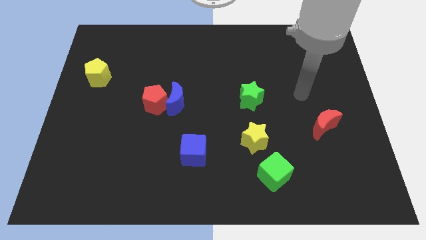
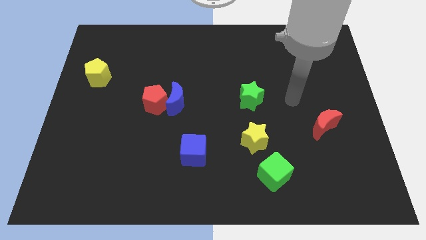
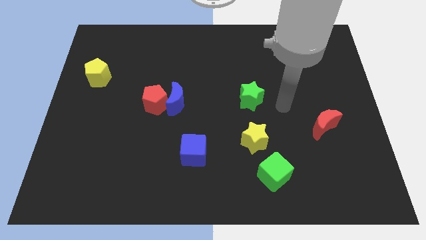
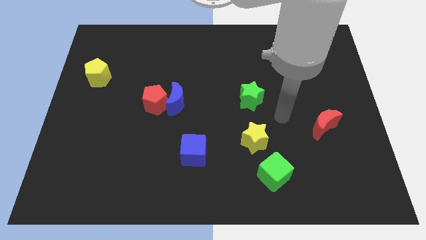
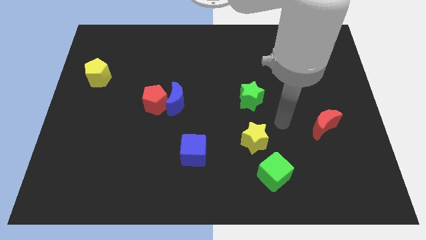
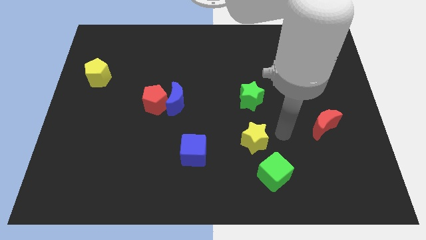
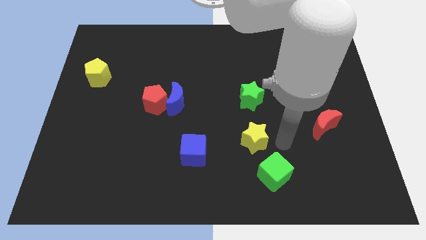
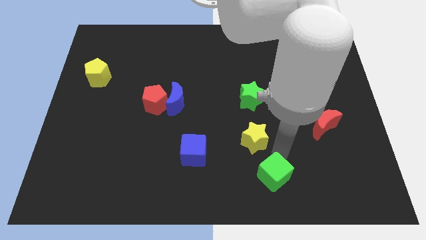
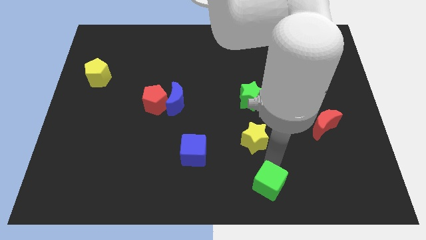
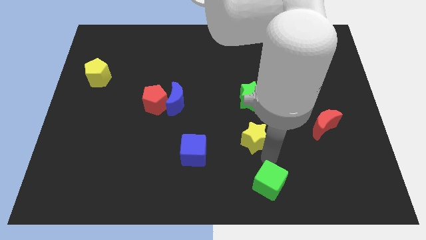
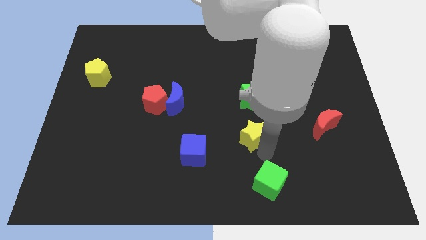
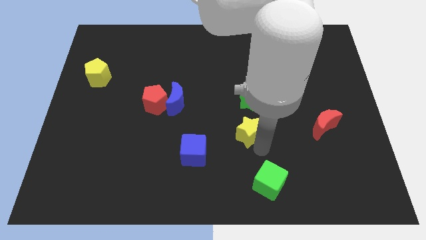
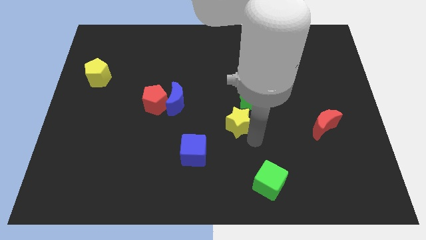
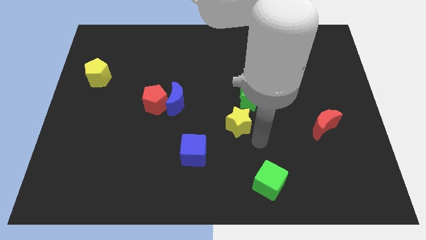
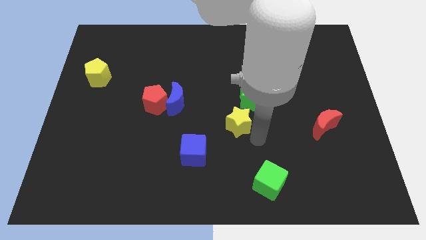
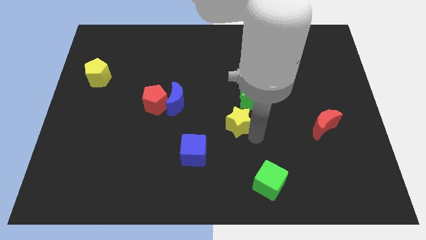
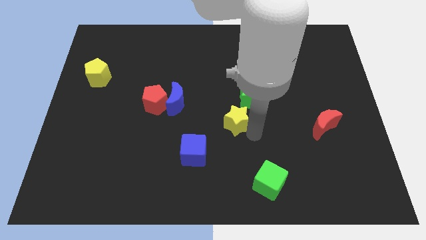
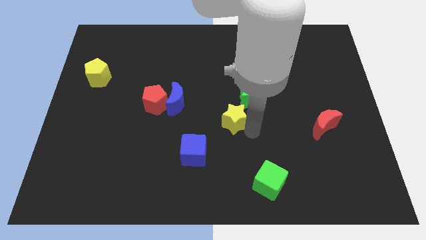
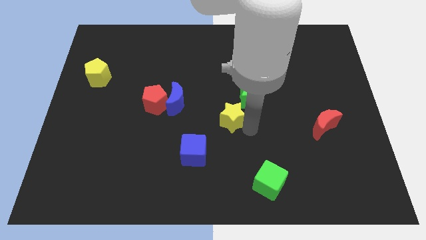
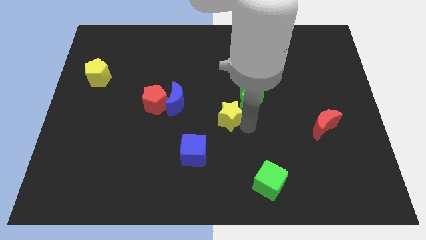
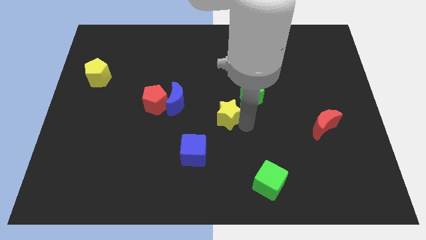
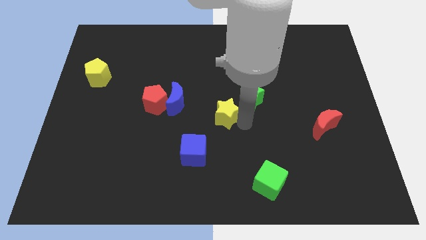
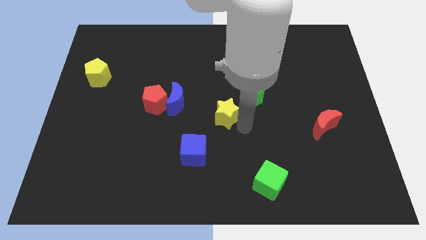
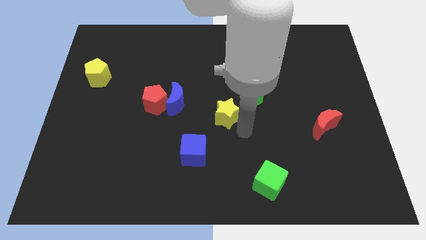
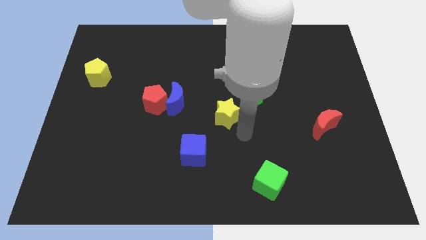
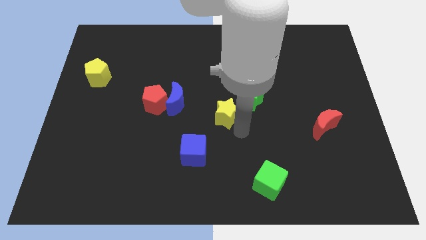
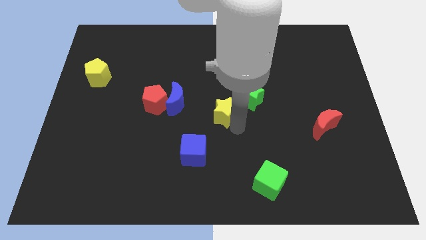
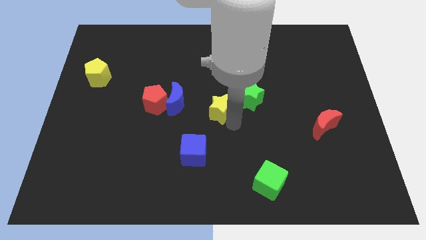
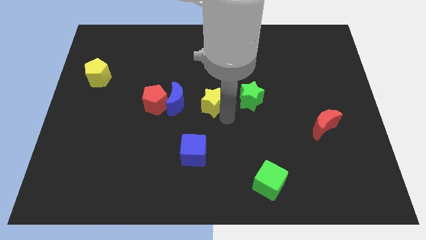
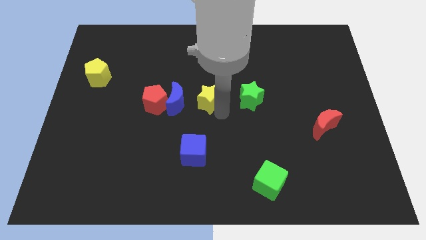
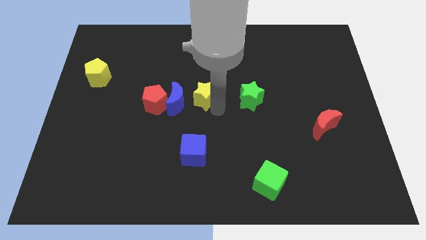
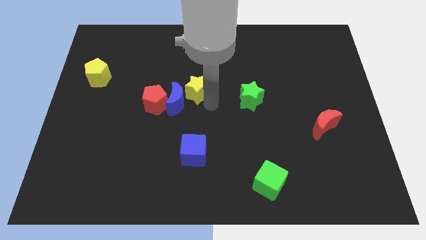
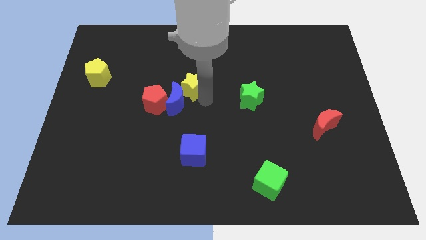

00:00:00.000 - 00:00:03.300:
move the yellow star upwards and then left

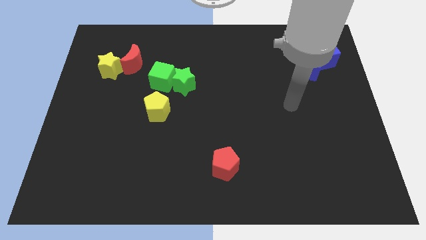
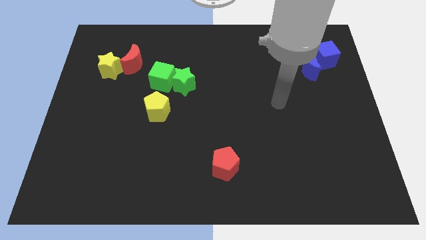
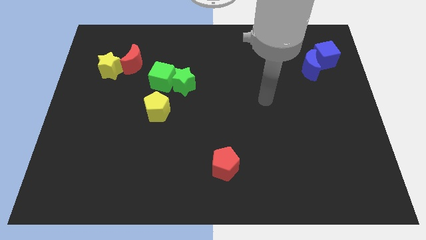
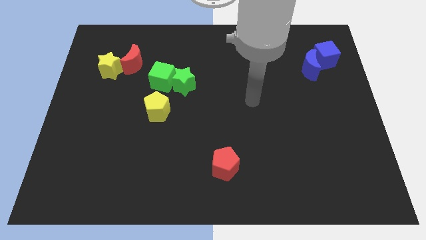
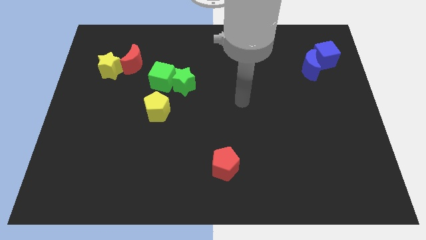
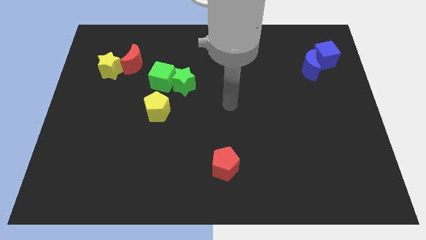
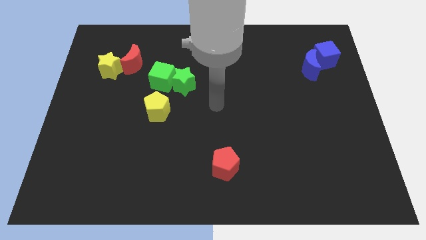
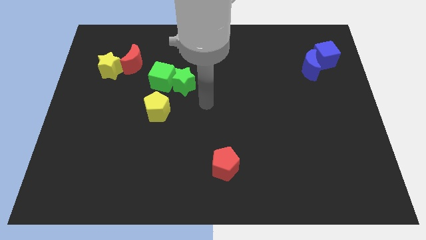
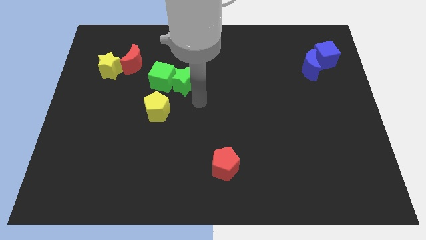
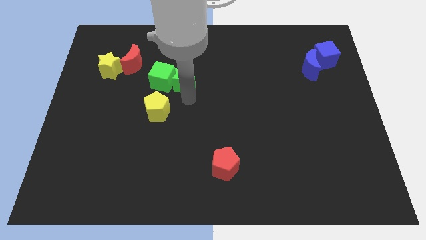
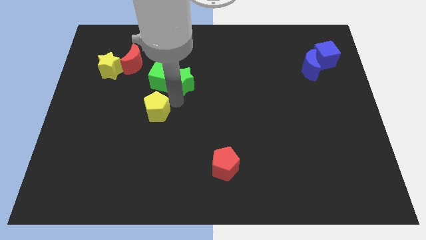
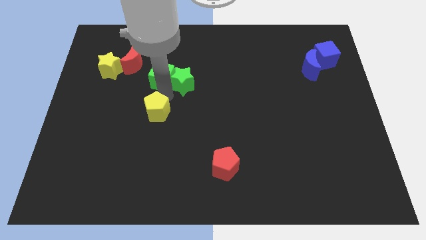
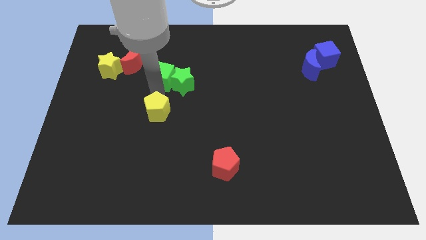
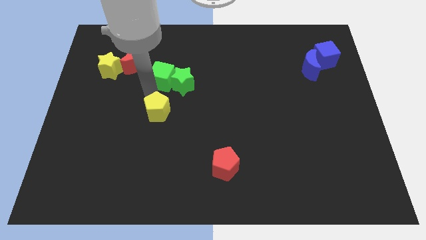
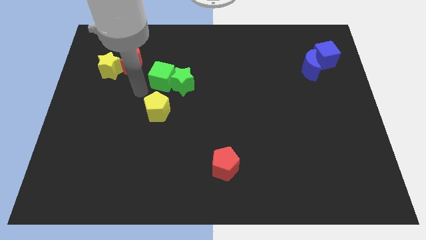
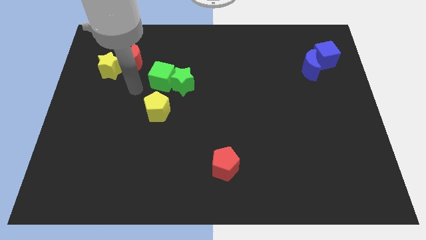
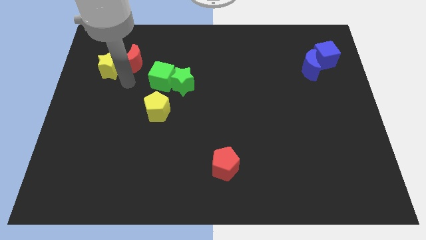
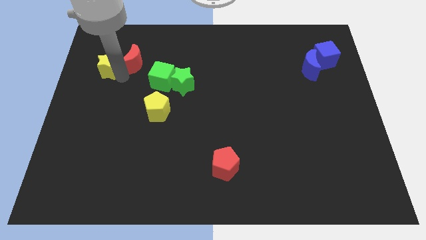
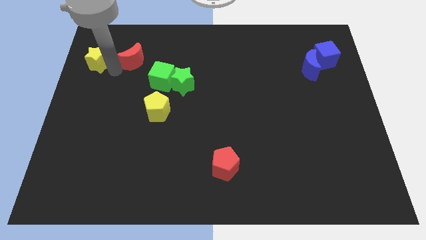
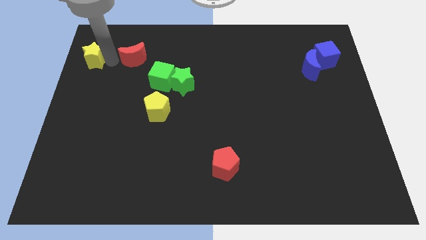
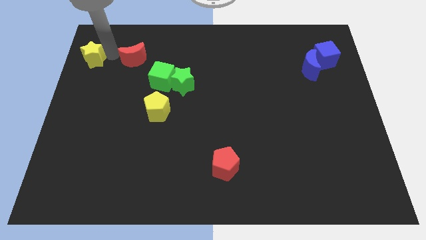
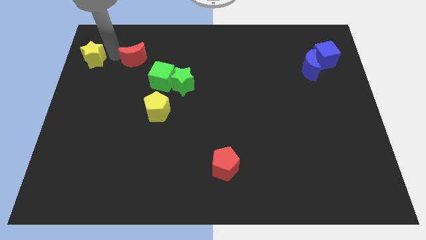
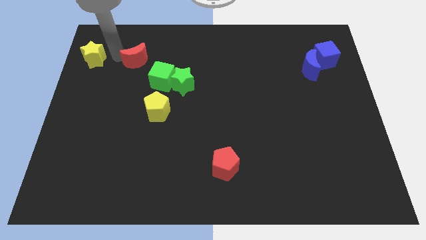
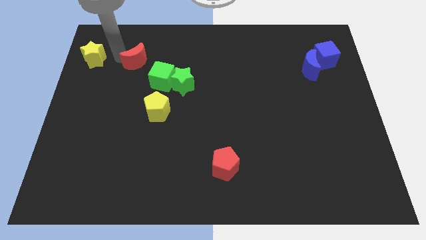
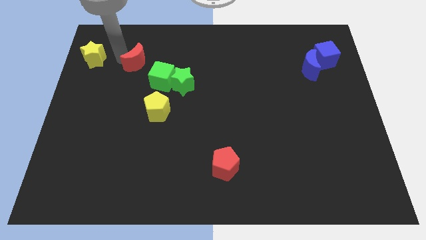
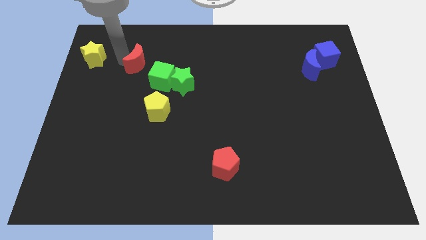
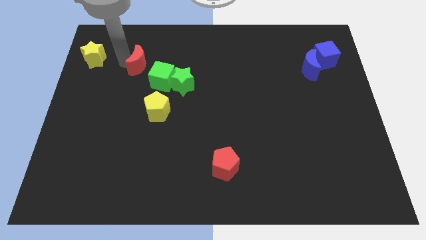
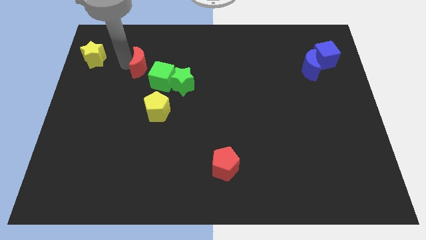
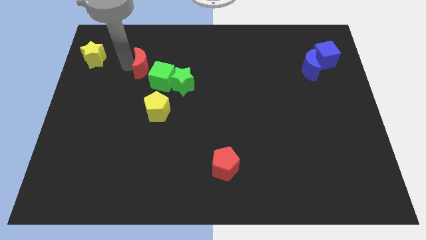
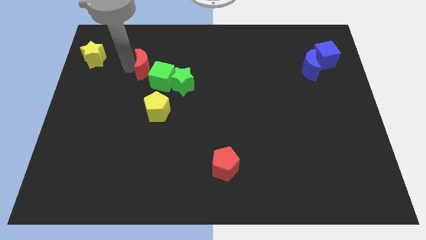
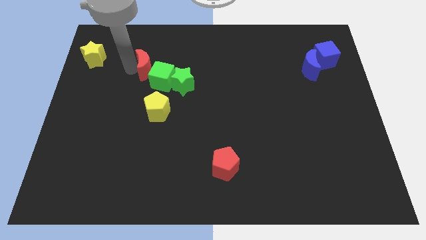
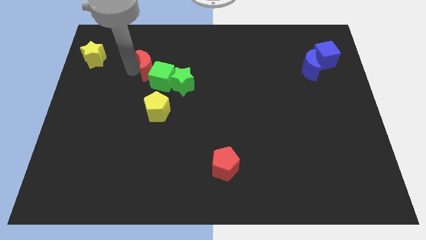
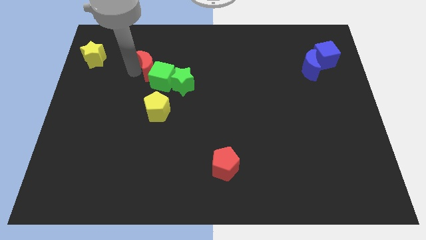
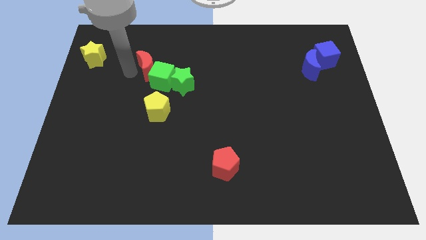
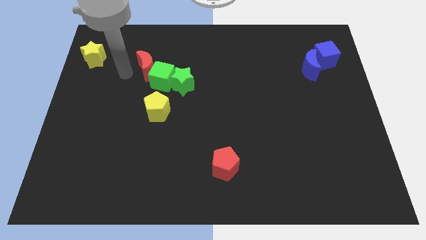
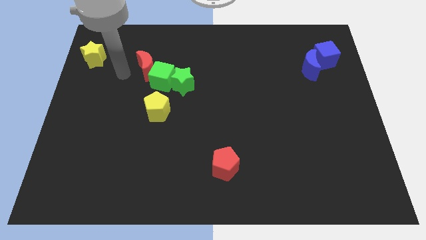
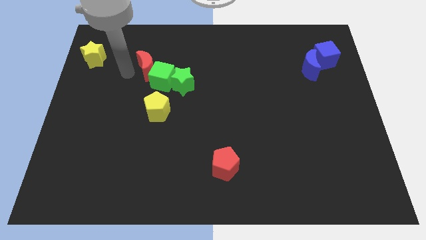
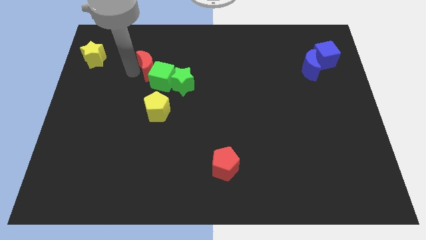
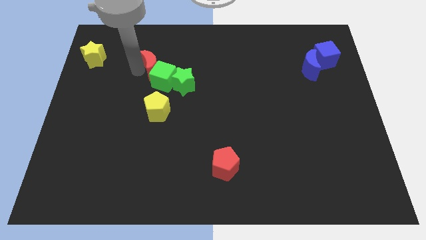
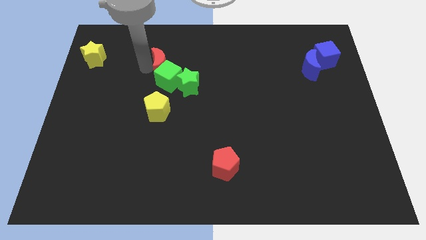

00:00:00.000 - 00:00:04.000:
move the red moon somewhat to the right

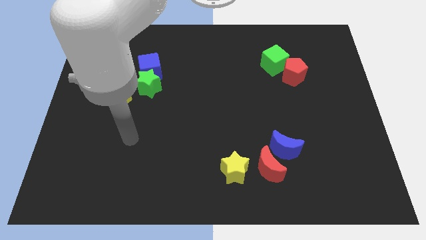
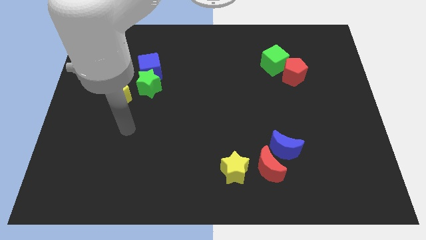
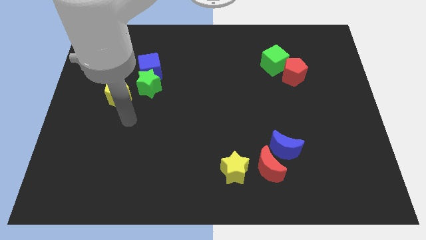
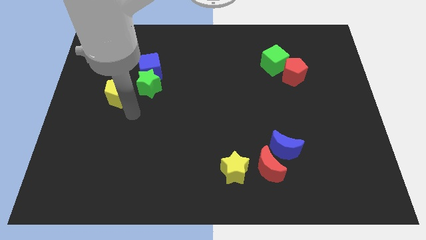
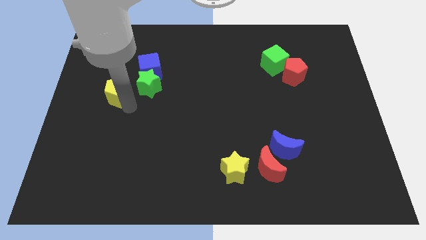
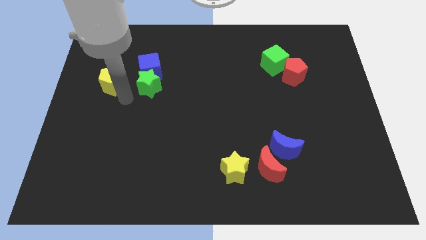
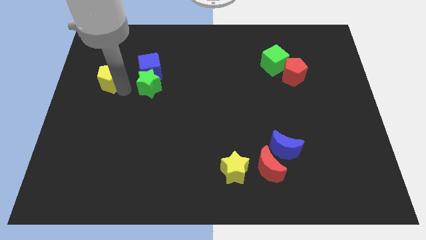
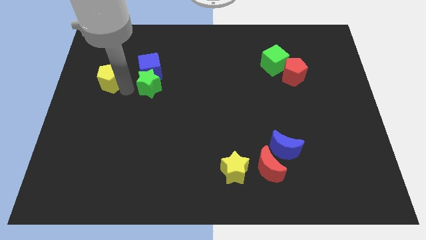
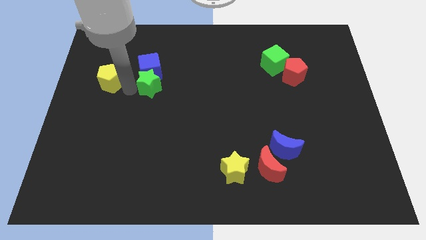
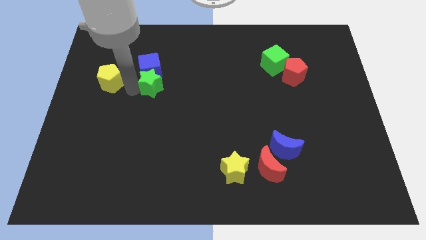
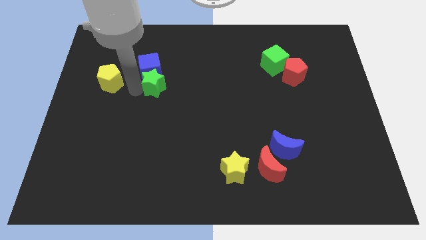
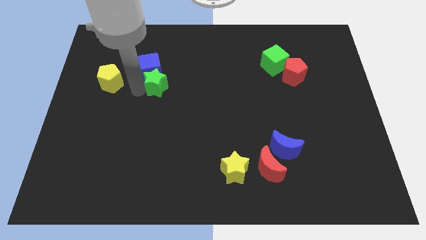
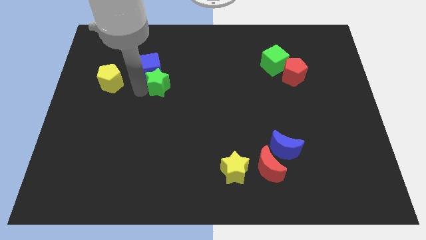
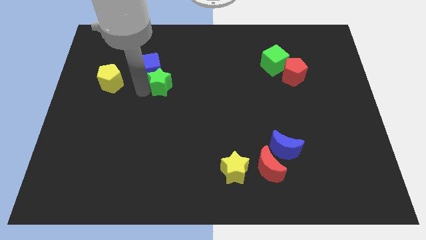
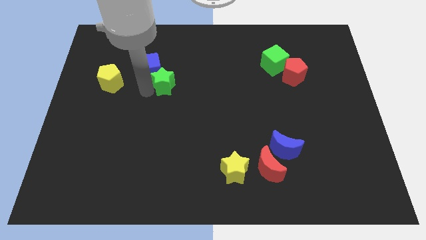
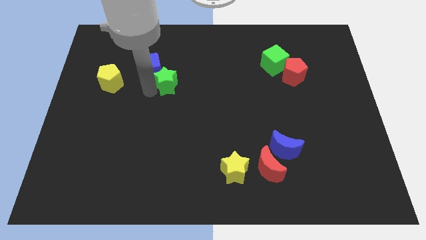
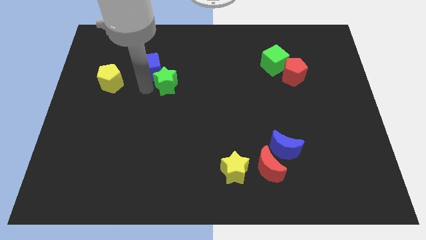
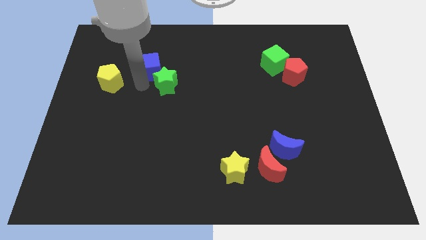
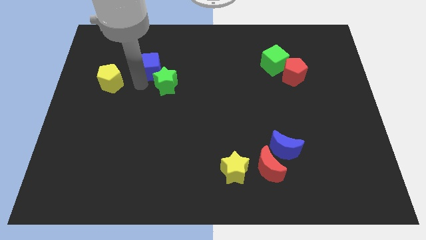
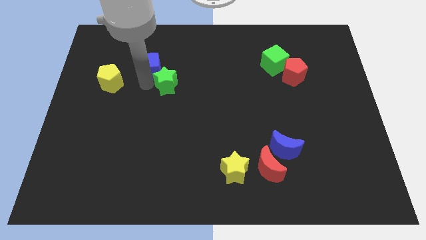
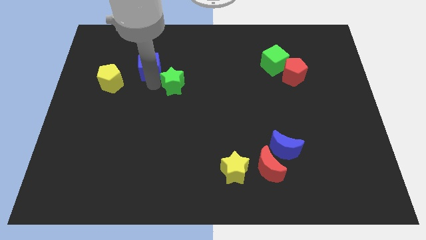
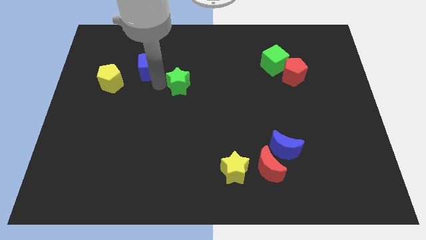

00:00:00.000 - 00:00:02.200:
slide the green star right a little bit
